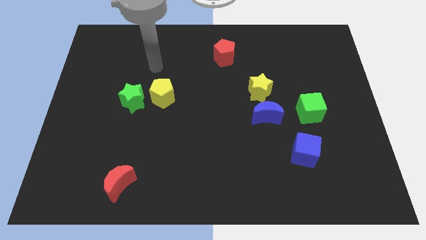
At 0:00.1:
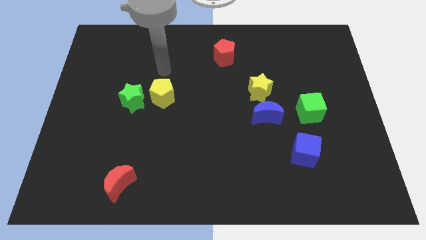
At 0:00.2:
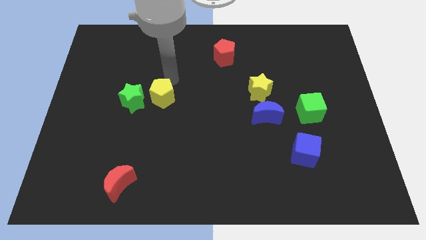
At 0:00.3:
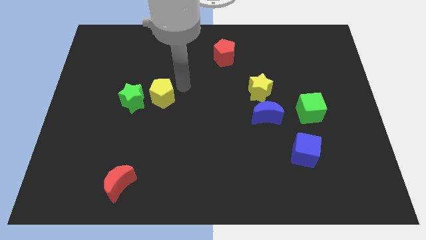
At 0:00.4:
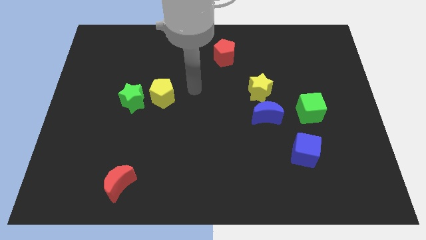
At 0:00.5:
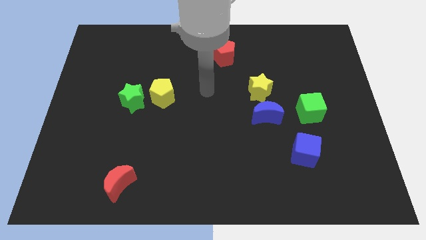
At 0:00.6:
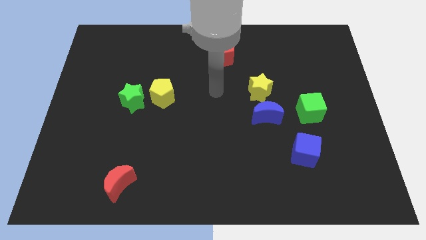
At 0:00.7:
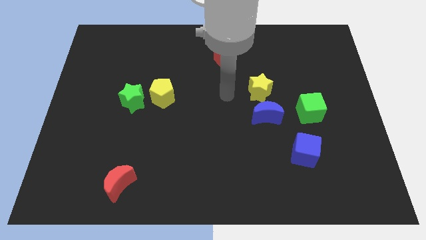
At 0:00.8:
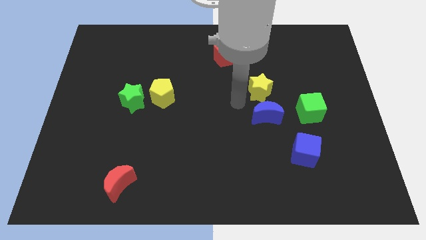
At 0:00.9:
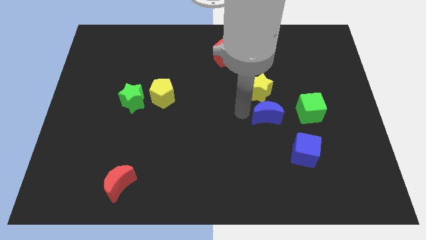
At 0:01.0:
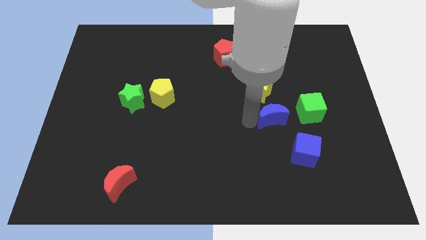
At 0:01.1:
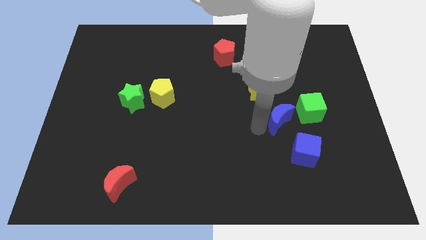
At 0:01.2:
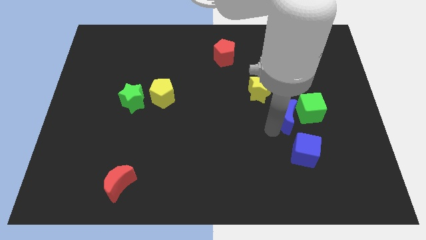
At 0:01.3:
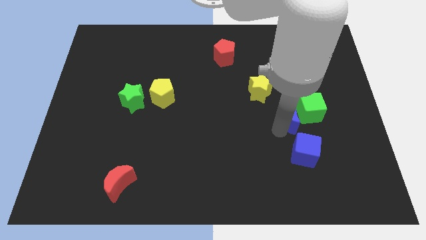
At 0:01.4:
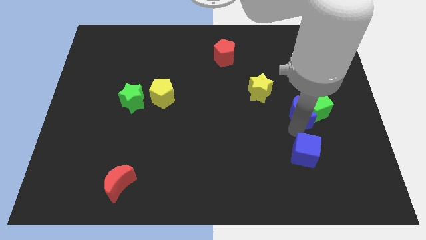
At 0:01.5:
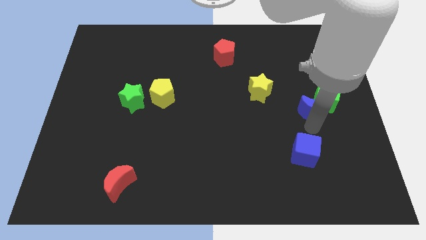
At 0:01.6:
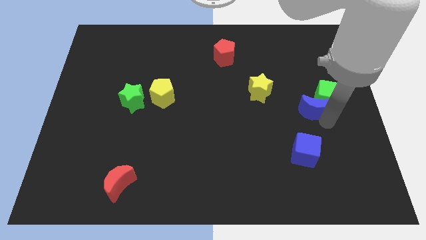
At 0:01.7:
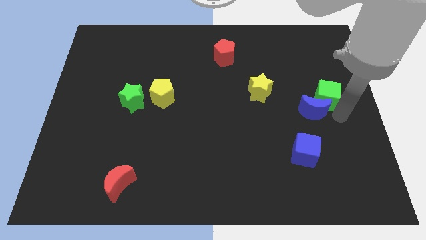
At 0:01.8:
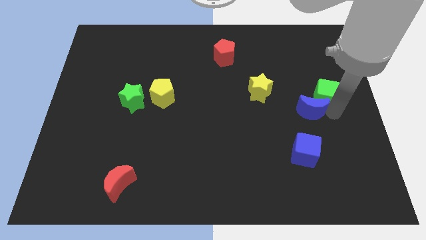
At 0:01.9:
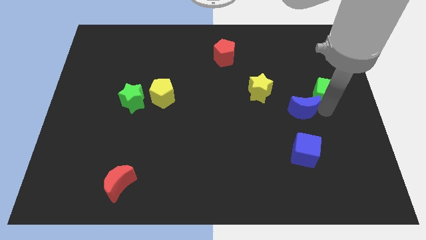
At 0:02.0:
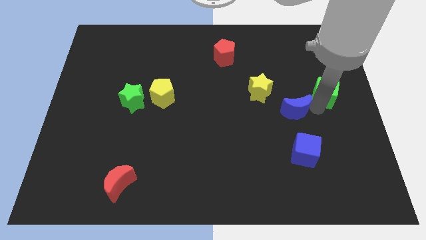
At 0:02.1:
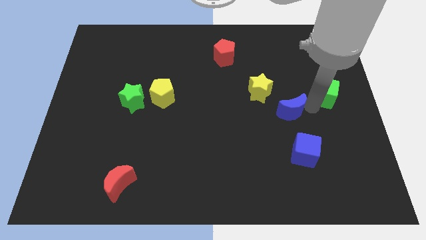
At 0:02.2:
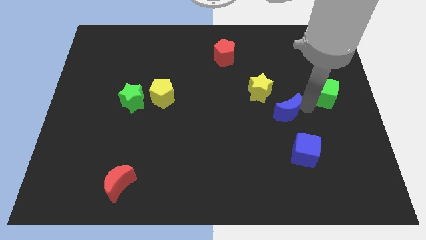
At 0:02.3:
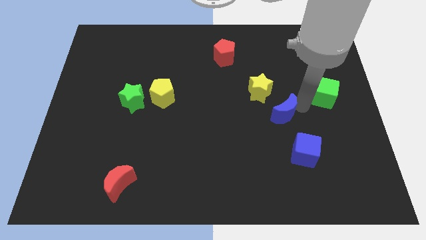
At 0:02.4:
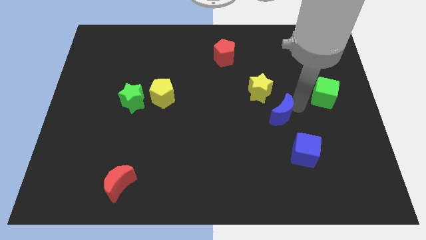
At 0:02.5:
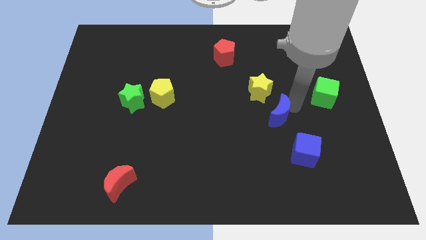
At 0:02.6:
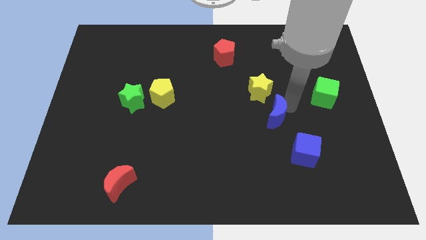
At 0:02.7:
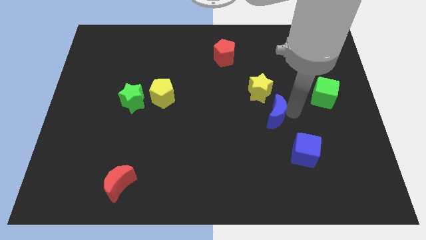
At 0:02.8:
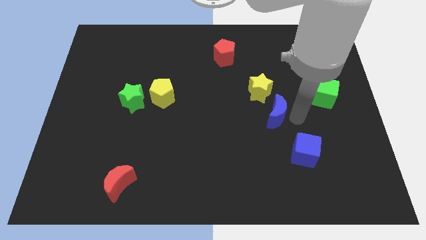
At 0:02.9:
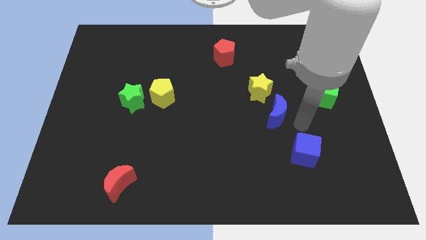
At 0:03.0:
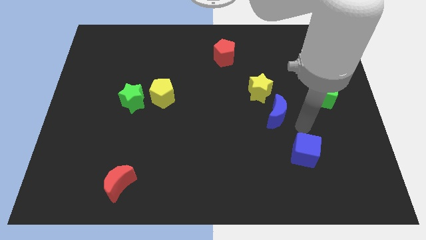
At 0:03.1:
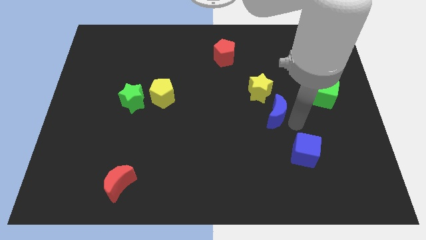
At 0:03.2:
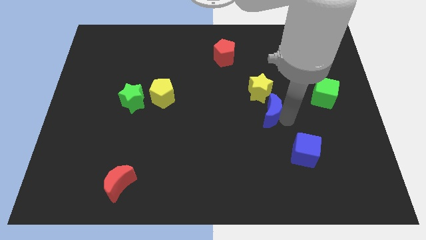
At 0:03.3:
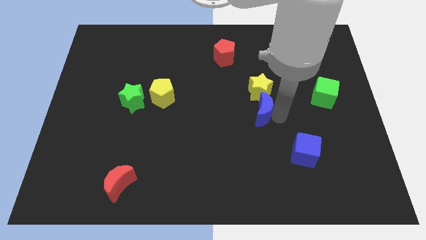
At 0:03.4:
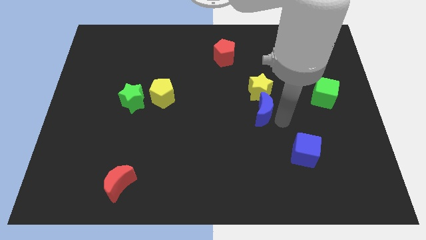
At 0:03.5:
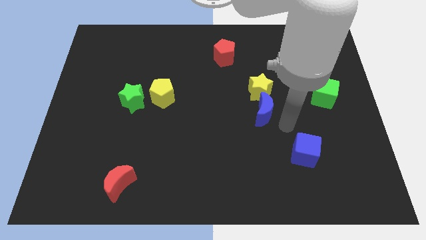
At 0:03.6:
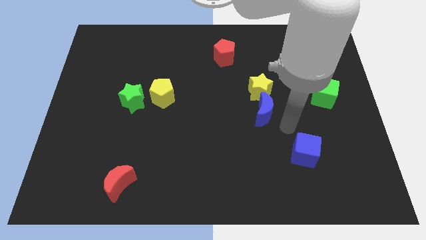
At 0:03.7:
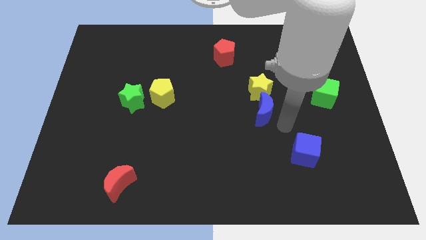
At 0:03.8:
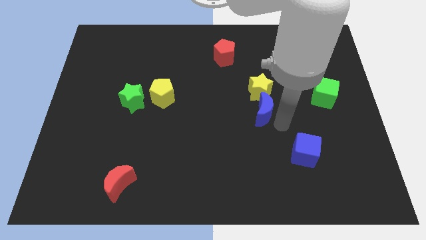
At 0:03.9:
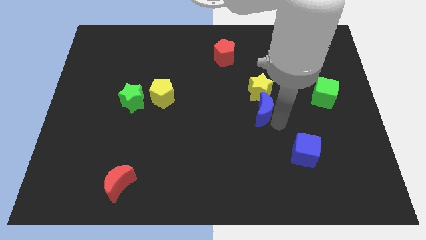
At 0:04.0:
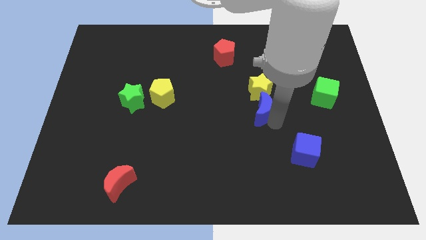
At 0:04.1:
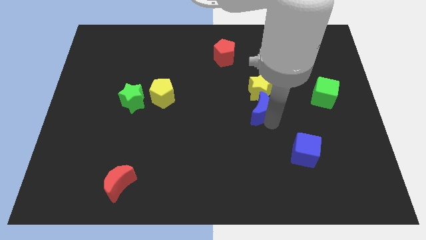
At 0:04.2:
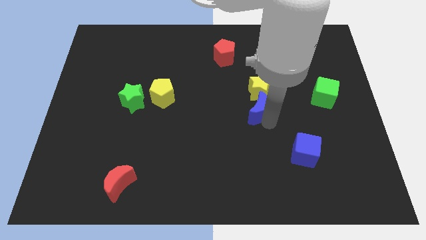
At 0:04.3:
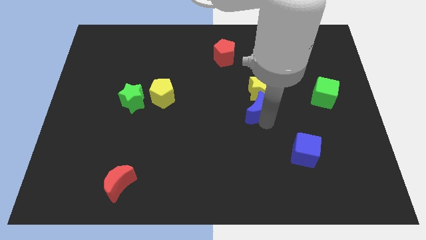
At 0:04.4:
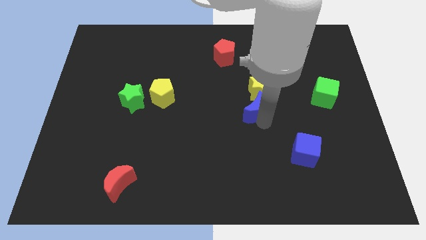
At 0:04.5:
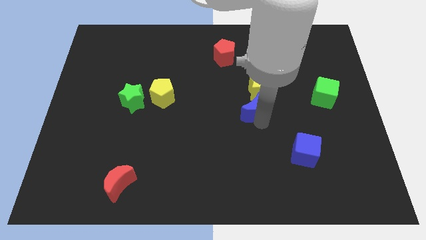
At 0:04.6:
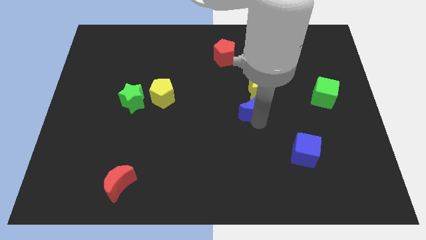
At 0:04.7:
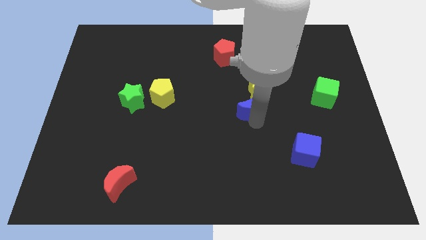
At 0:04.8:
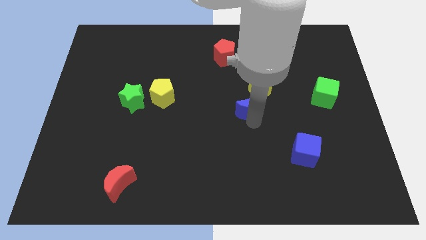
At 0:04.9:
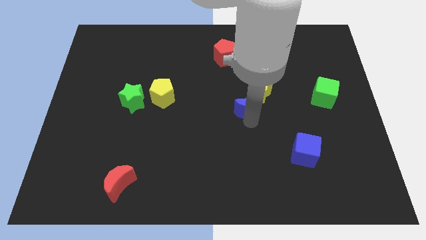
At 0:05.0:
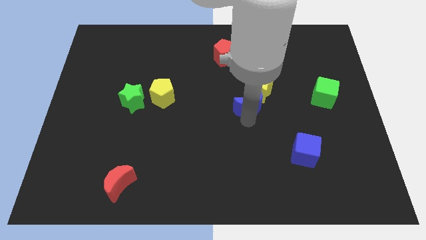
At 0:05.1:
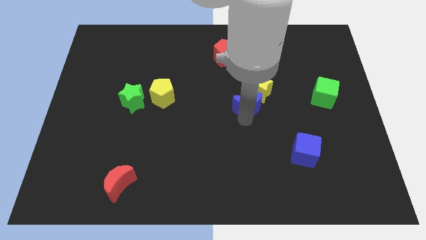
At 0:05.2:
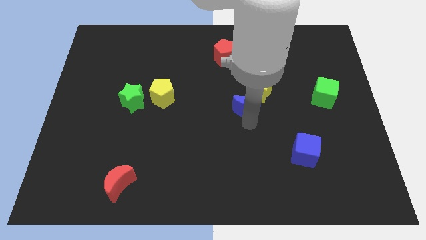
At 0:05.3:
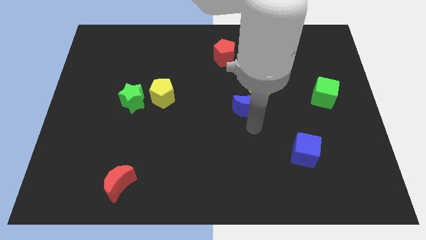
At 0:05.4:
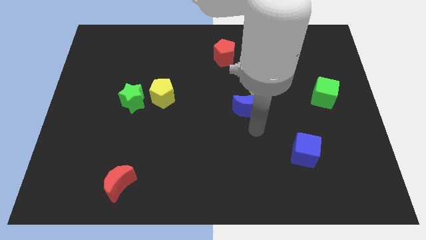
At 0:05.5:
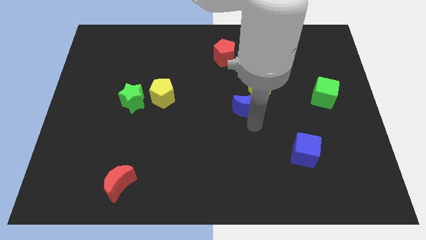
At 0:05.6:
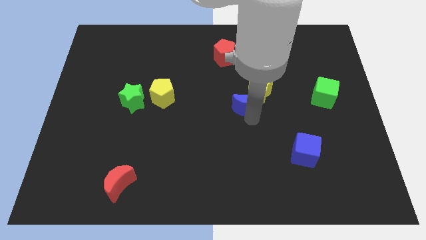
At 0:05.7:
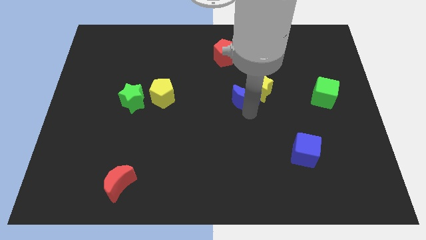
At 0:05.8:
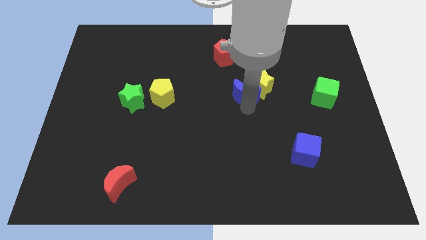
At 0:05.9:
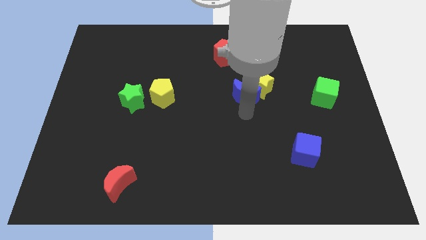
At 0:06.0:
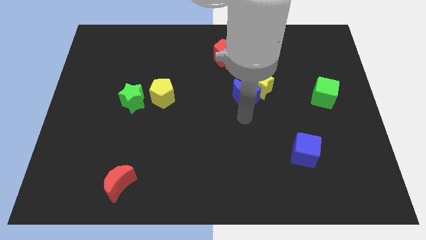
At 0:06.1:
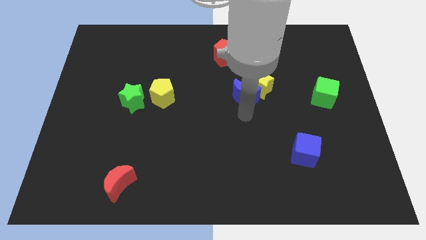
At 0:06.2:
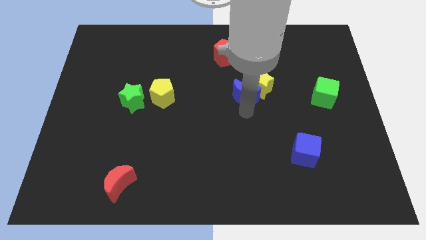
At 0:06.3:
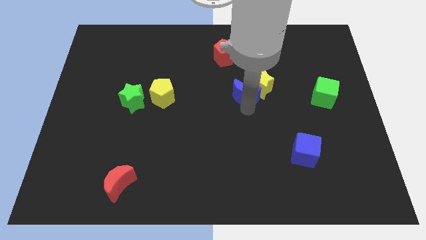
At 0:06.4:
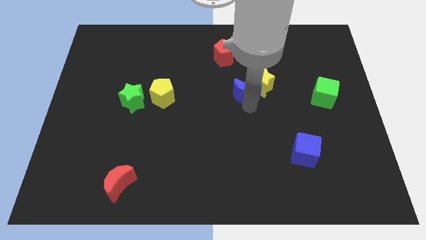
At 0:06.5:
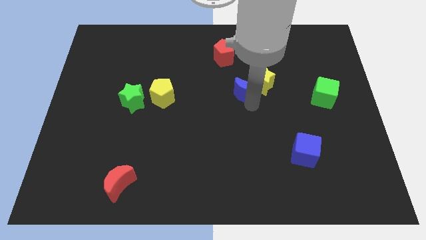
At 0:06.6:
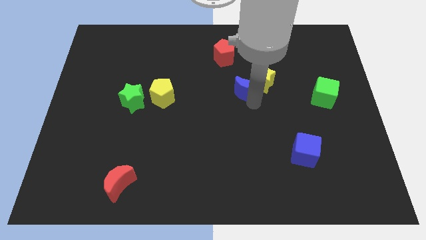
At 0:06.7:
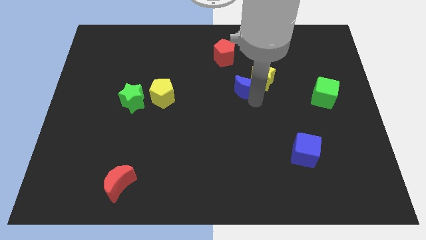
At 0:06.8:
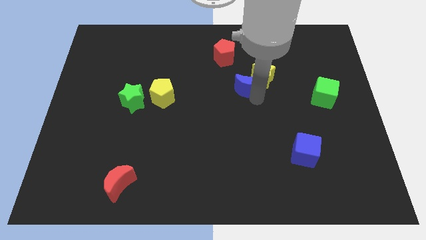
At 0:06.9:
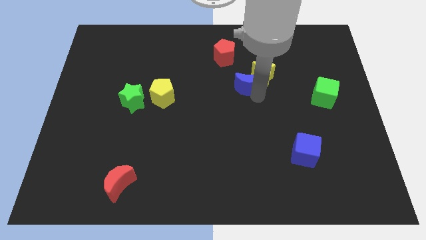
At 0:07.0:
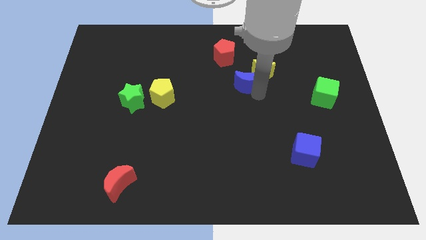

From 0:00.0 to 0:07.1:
put the blue moon to the bottom right of the red pentagon
